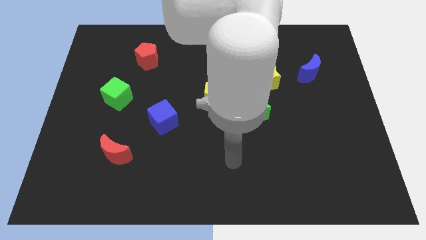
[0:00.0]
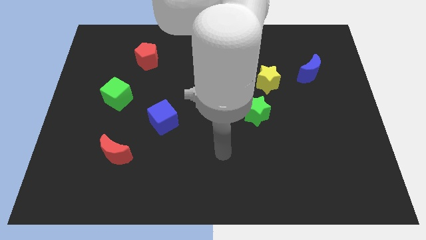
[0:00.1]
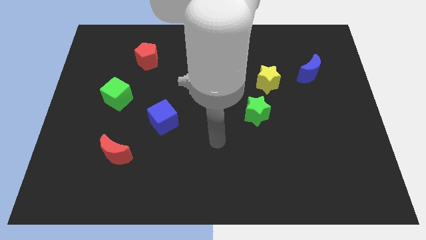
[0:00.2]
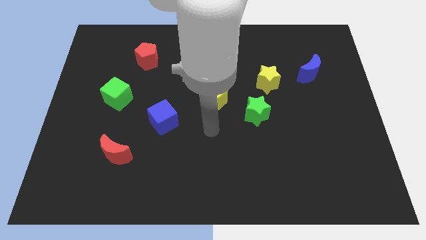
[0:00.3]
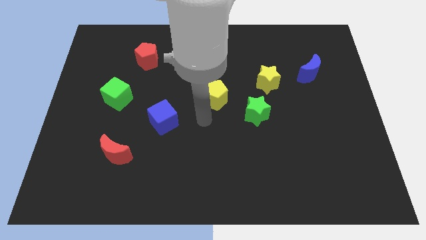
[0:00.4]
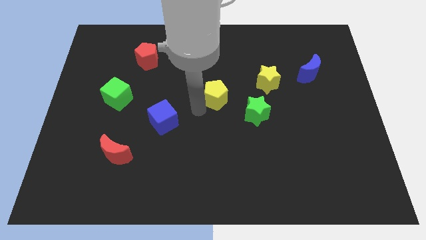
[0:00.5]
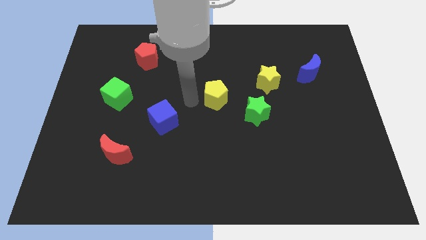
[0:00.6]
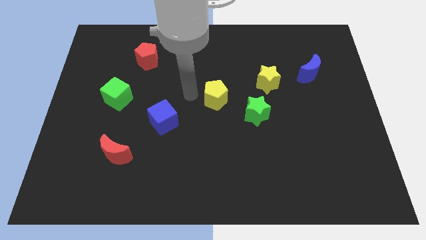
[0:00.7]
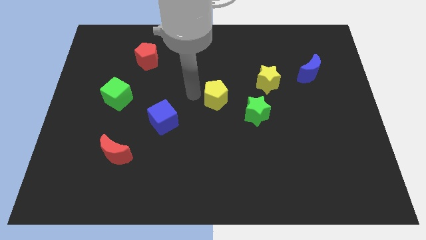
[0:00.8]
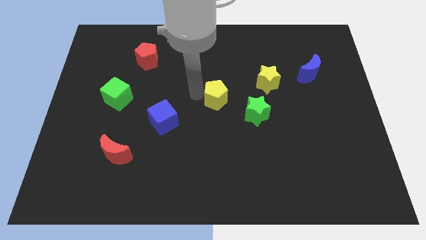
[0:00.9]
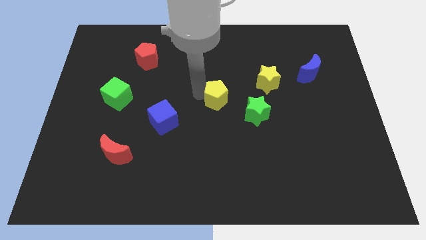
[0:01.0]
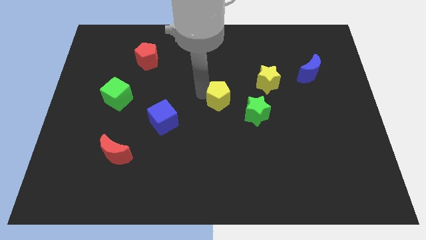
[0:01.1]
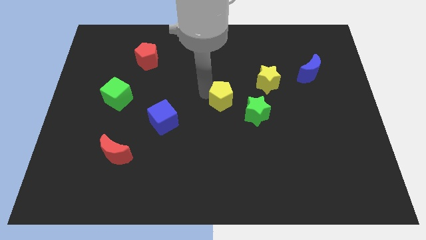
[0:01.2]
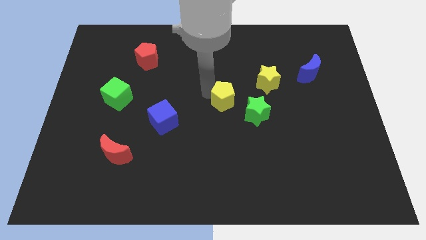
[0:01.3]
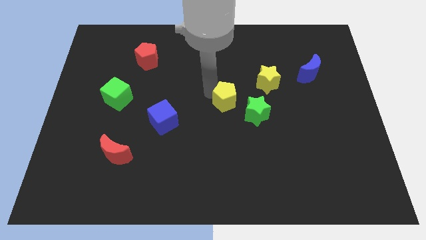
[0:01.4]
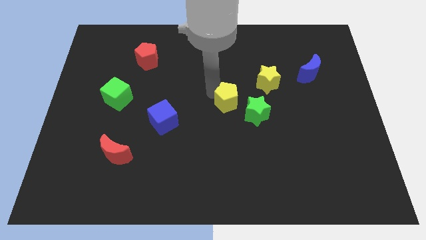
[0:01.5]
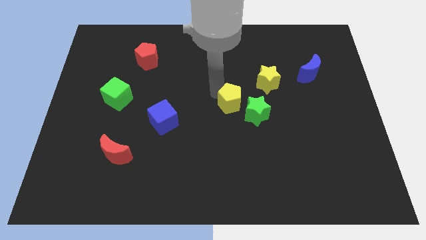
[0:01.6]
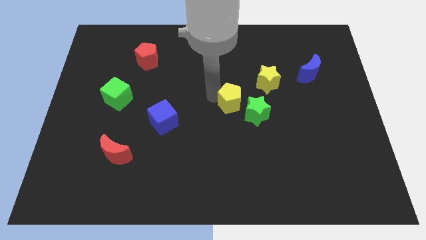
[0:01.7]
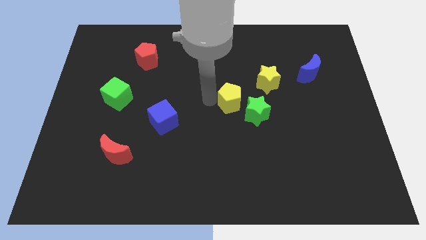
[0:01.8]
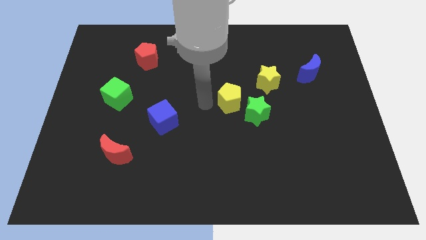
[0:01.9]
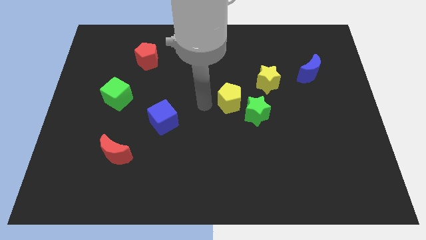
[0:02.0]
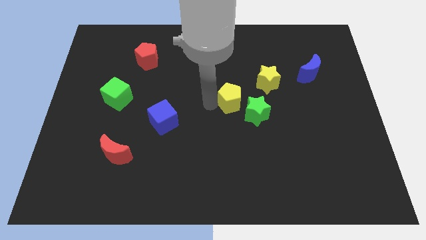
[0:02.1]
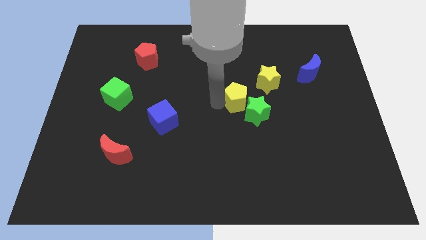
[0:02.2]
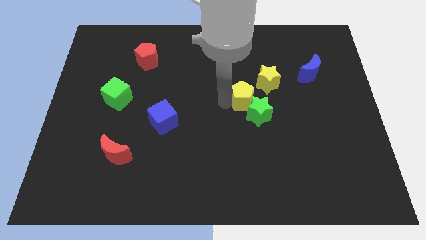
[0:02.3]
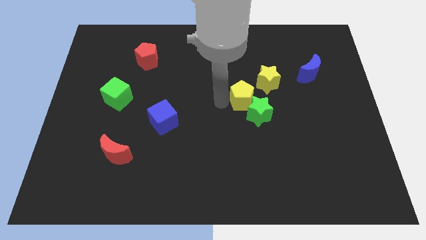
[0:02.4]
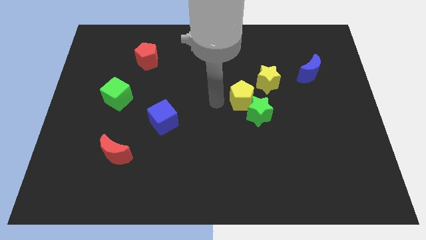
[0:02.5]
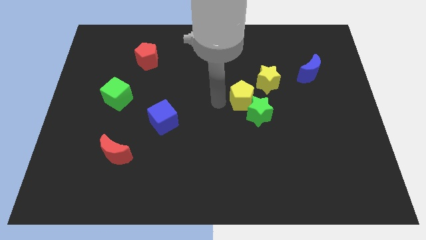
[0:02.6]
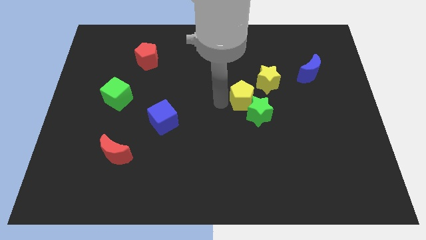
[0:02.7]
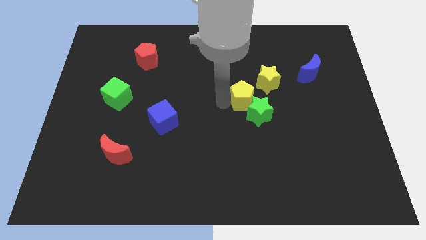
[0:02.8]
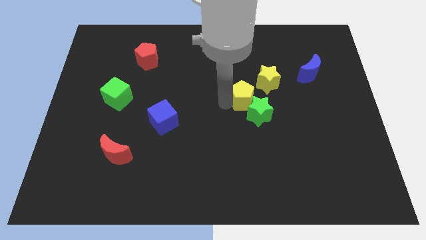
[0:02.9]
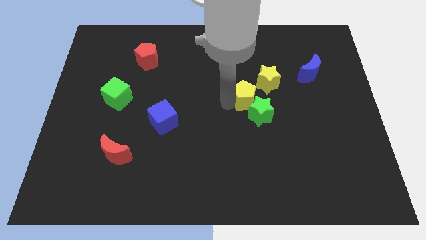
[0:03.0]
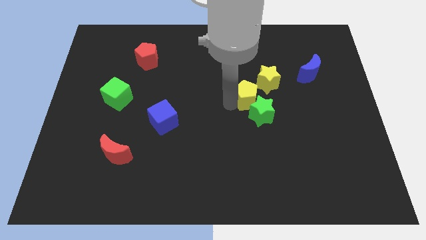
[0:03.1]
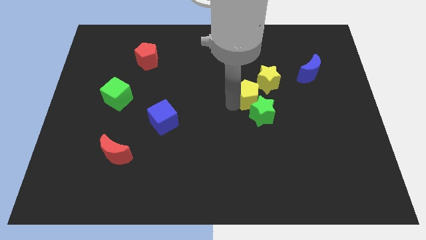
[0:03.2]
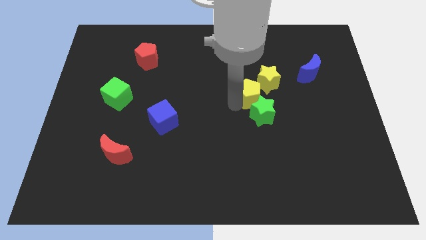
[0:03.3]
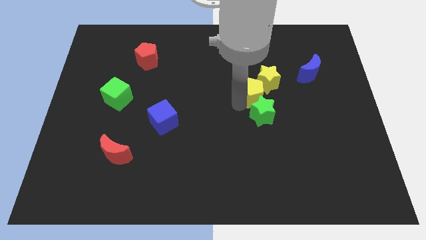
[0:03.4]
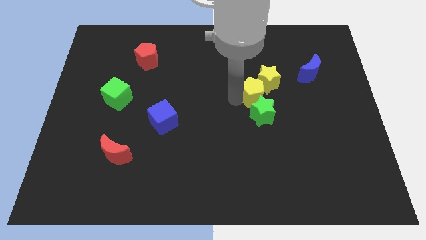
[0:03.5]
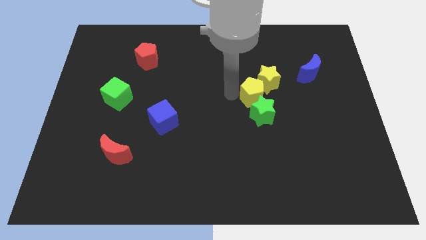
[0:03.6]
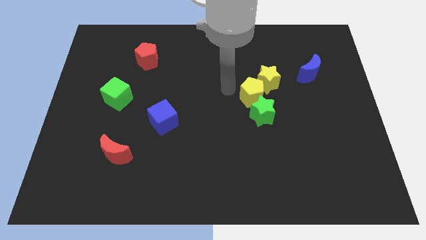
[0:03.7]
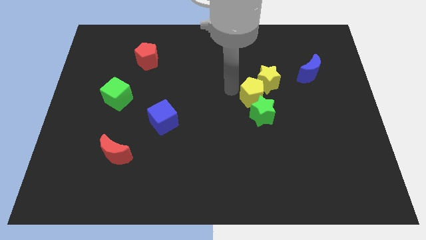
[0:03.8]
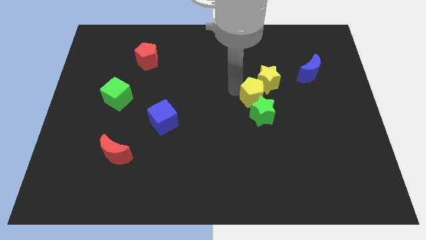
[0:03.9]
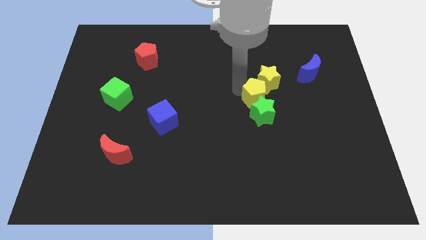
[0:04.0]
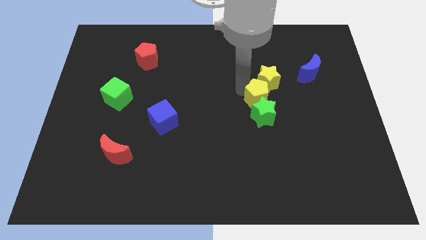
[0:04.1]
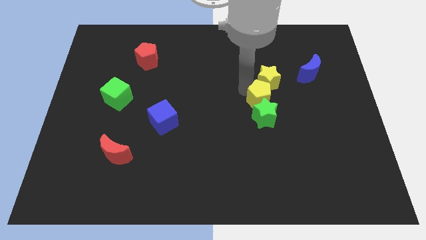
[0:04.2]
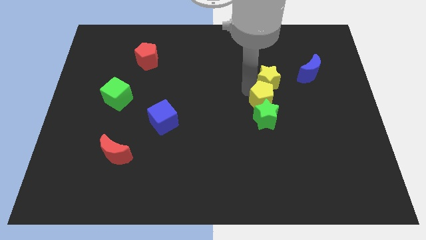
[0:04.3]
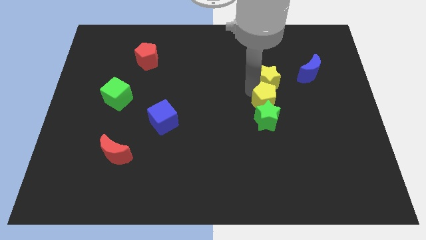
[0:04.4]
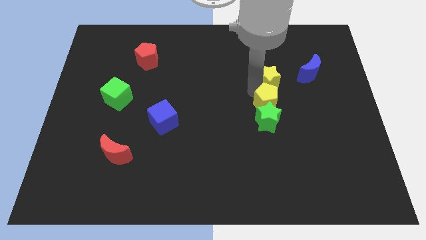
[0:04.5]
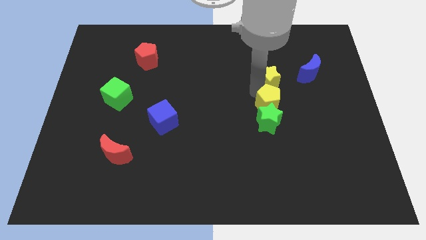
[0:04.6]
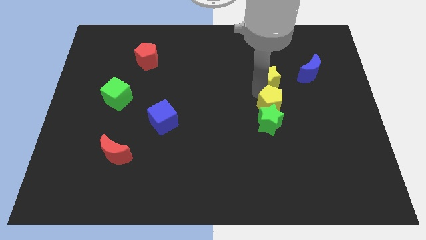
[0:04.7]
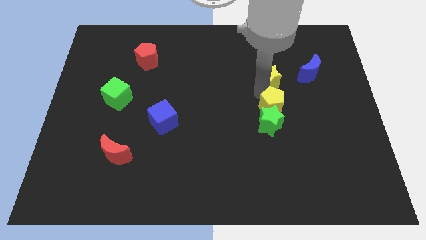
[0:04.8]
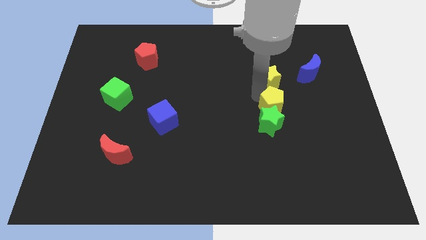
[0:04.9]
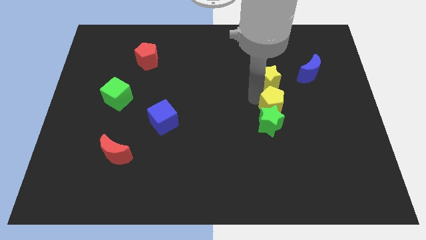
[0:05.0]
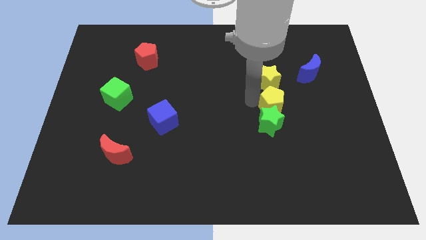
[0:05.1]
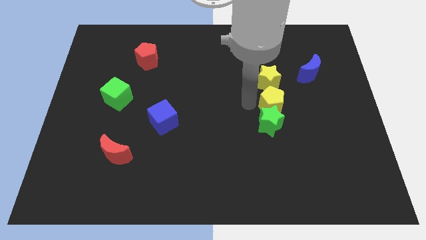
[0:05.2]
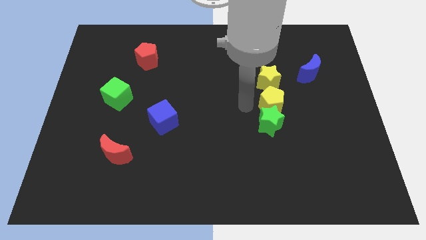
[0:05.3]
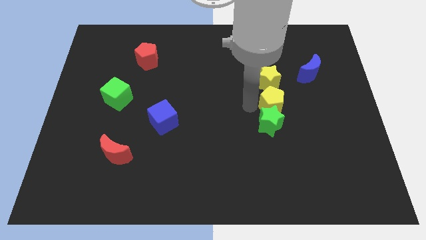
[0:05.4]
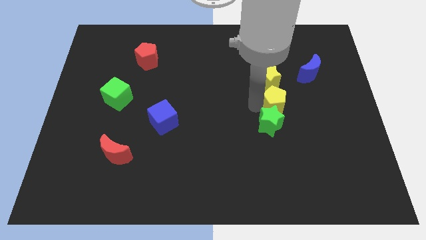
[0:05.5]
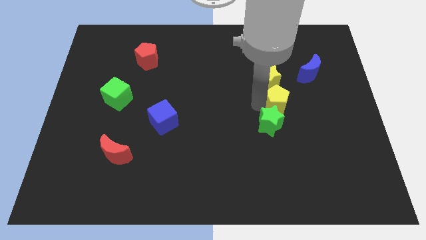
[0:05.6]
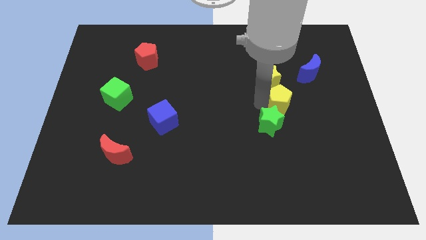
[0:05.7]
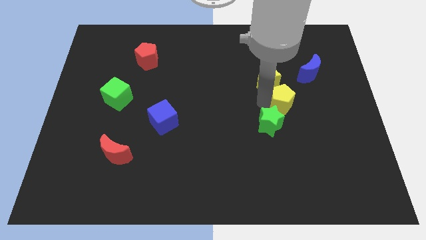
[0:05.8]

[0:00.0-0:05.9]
slide the yellow pentagon diagonally down and to the left of the blue moon

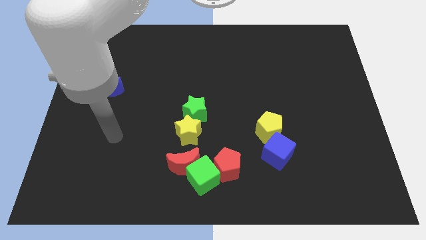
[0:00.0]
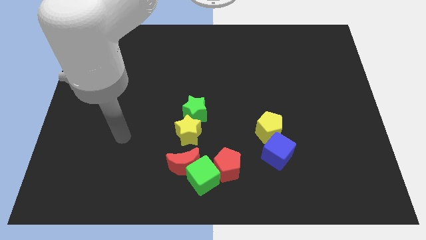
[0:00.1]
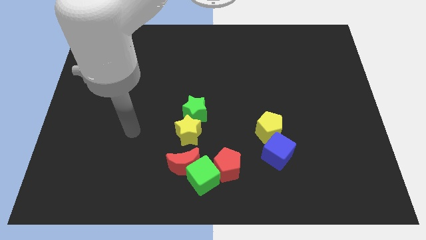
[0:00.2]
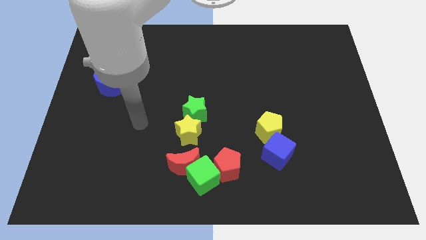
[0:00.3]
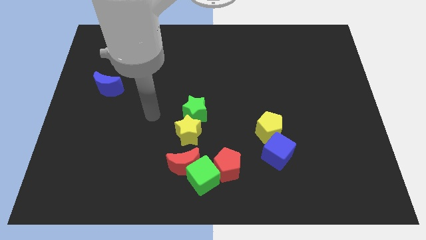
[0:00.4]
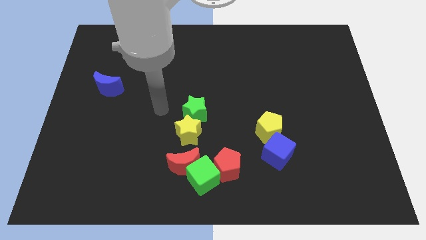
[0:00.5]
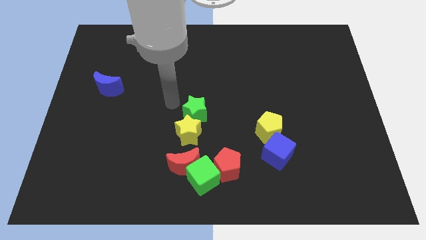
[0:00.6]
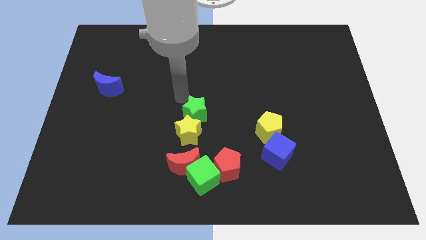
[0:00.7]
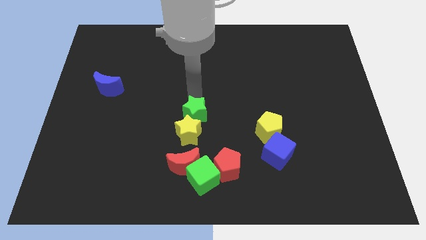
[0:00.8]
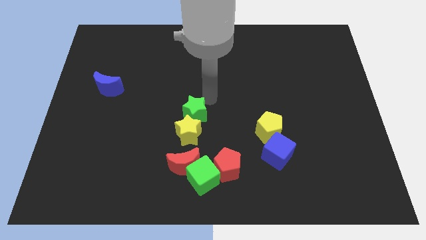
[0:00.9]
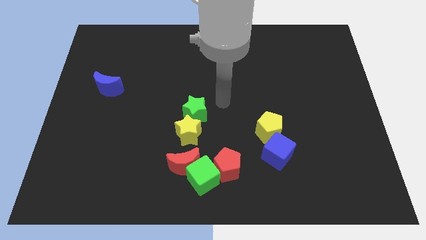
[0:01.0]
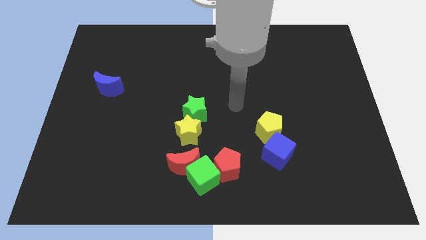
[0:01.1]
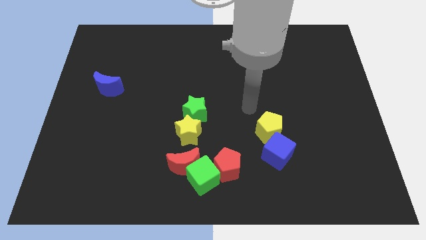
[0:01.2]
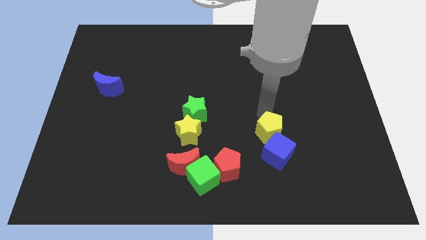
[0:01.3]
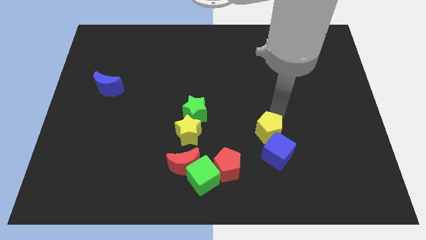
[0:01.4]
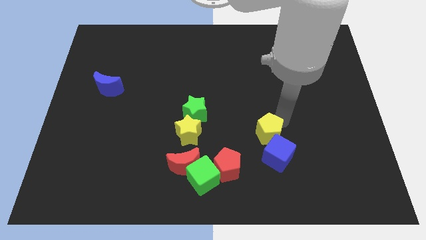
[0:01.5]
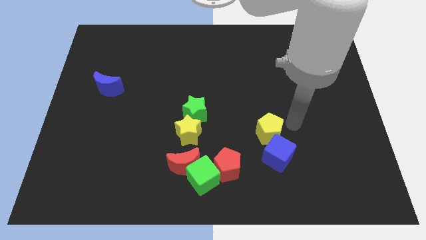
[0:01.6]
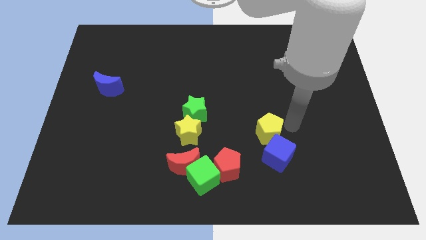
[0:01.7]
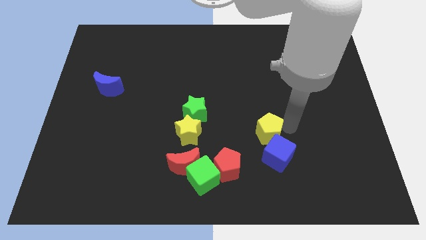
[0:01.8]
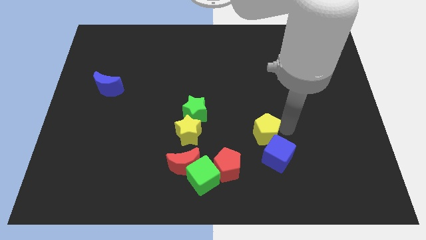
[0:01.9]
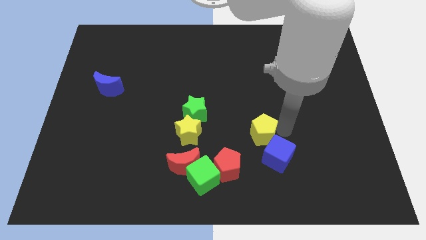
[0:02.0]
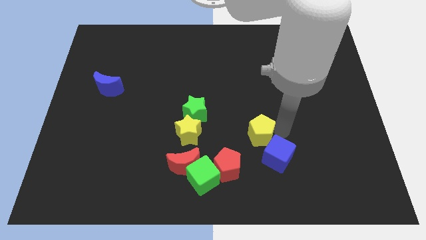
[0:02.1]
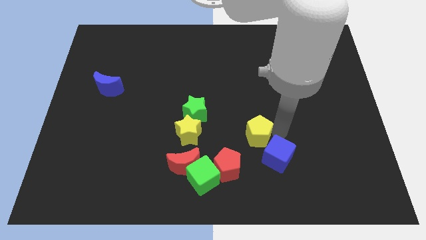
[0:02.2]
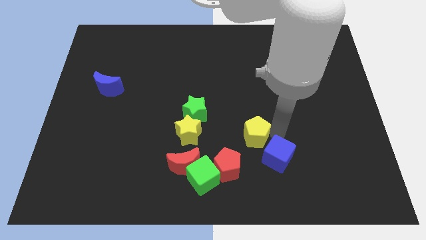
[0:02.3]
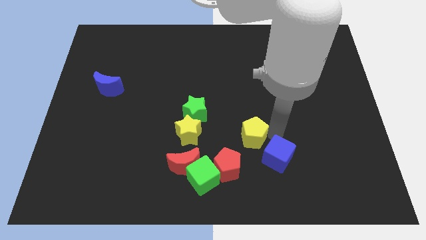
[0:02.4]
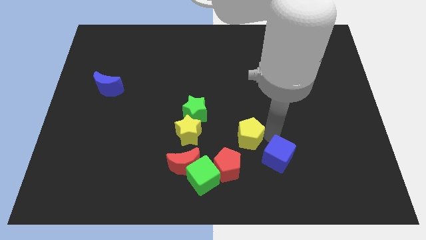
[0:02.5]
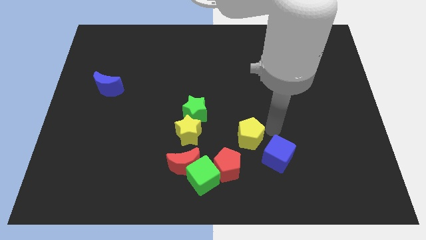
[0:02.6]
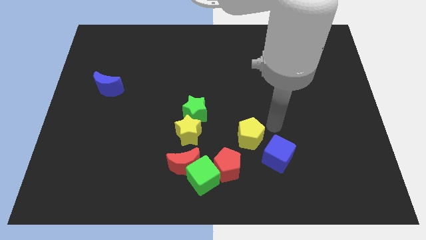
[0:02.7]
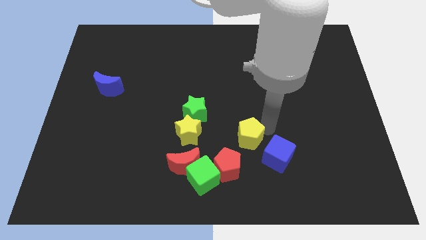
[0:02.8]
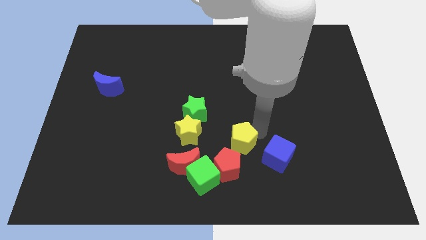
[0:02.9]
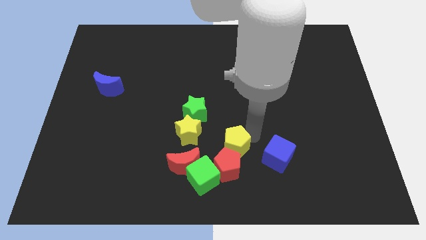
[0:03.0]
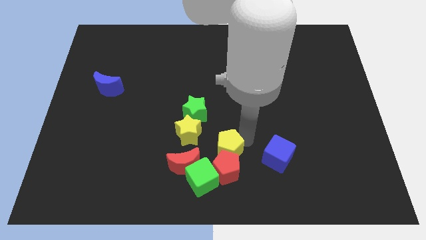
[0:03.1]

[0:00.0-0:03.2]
slide the yellow pentagon diagonally down and to the right of the yellow star
